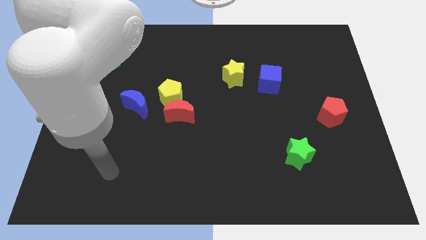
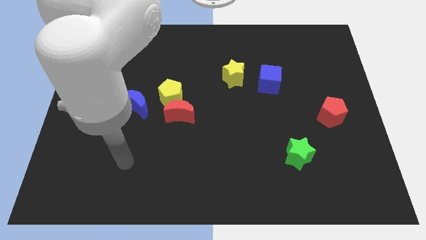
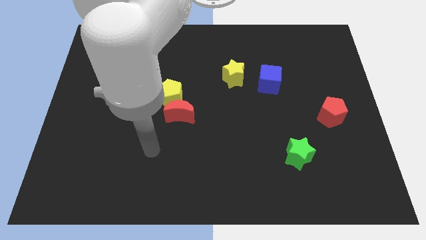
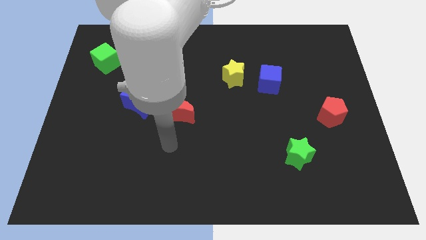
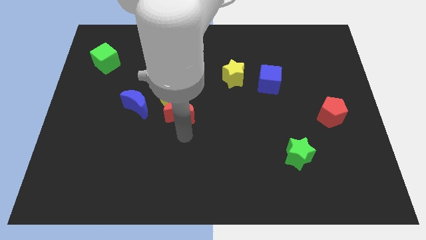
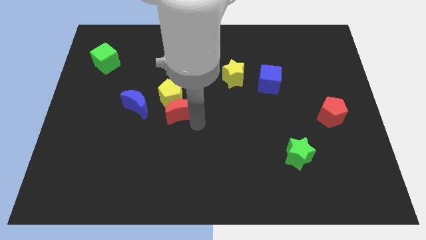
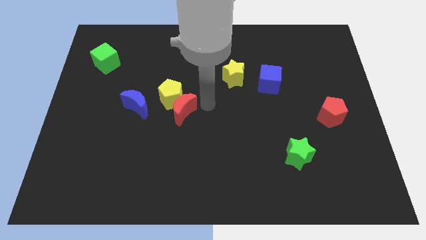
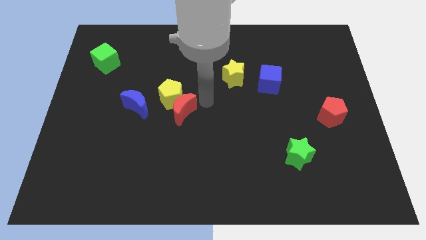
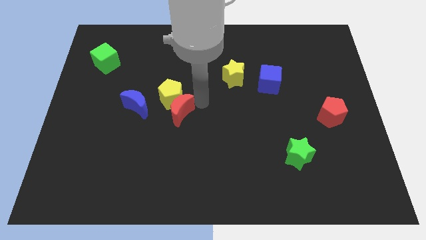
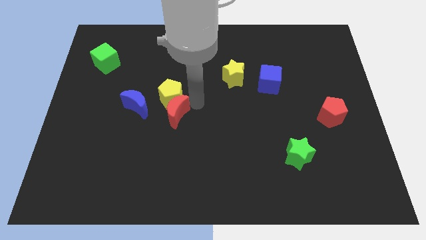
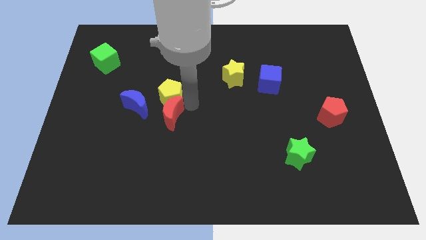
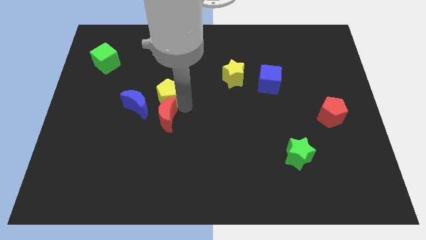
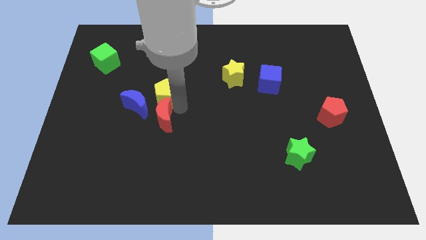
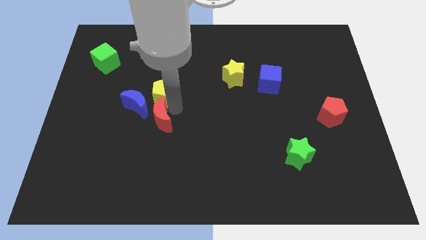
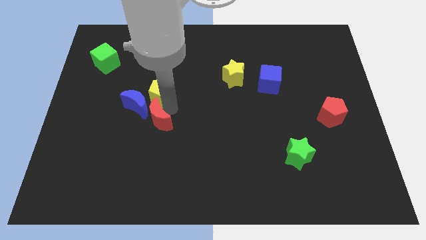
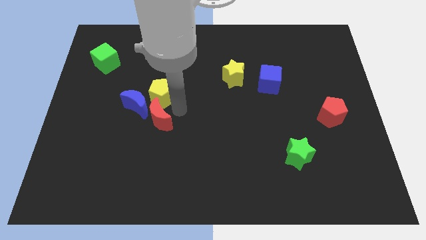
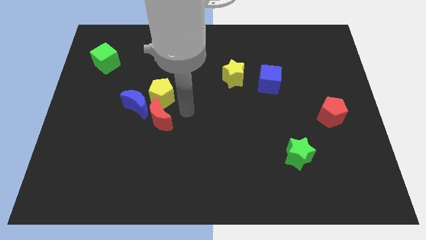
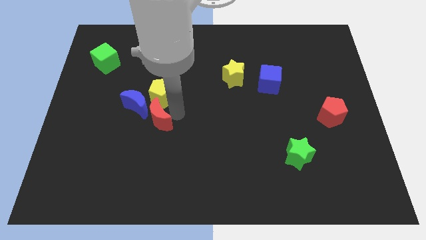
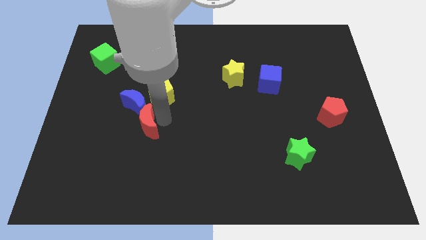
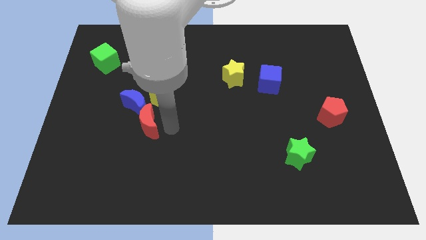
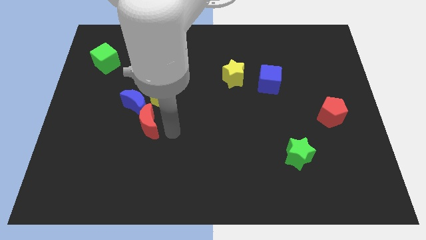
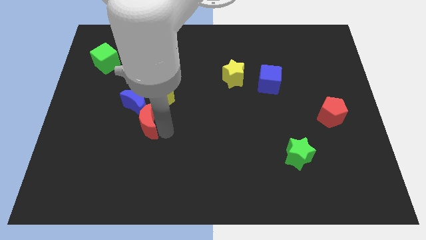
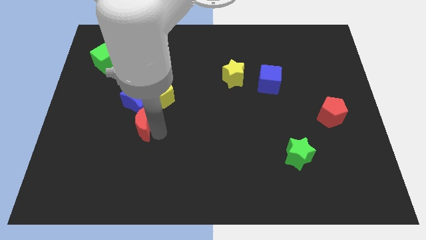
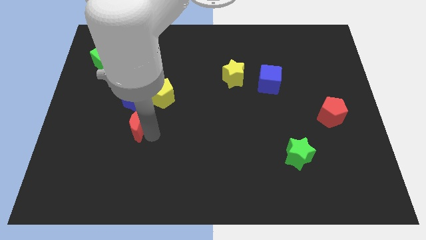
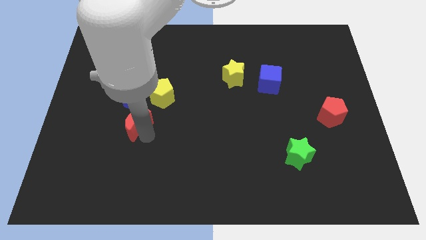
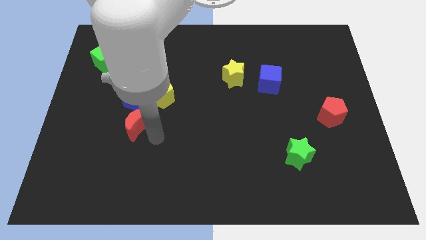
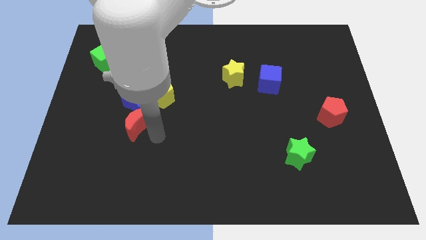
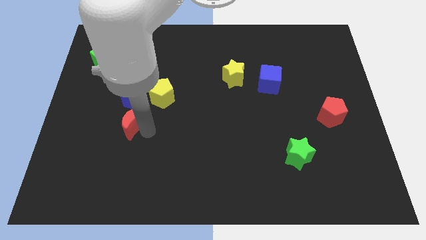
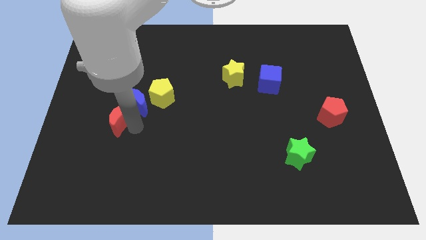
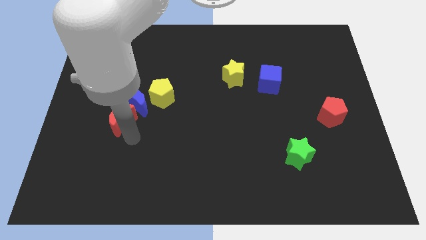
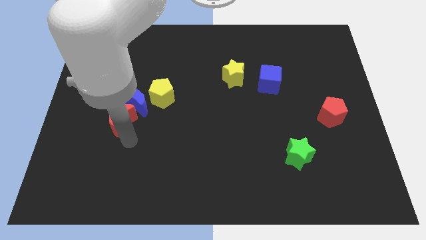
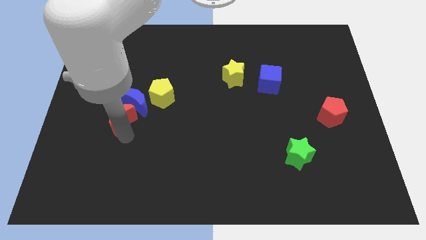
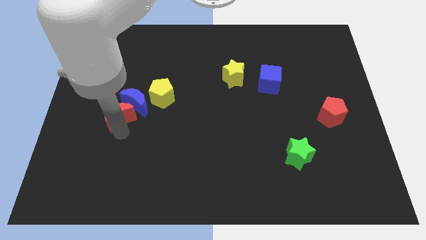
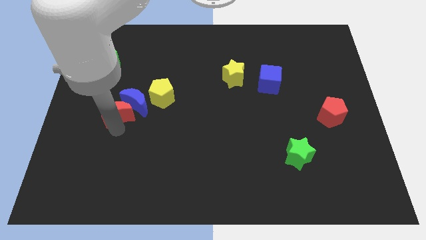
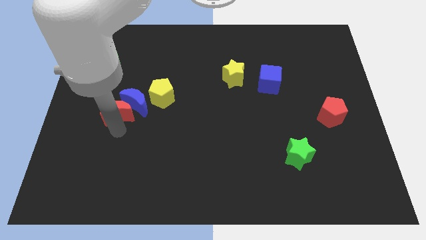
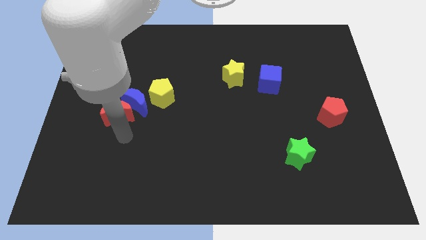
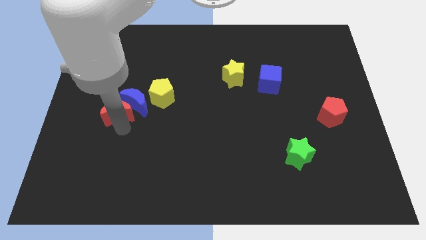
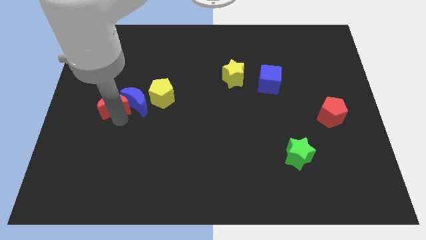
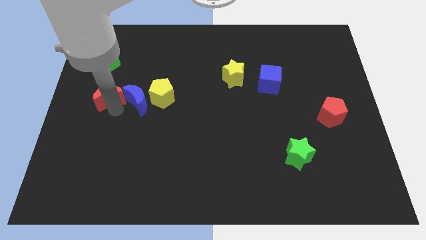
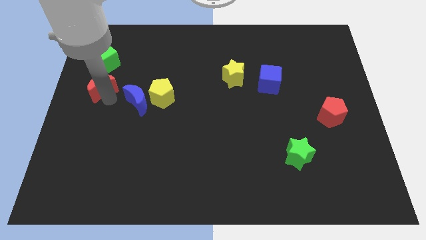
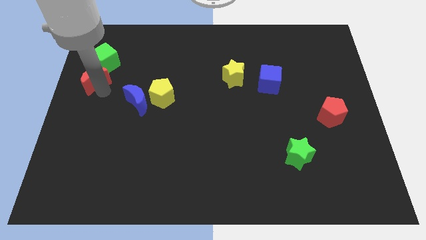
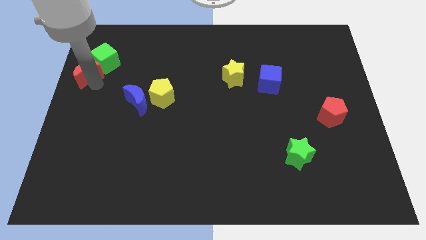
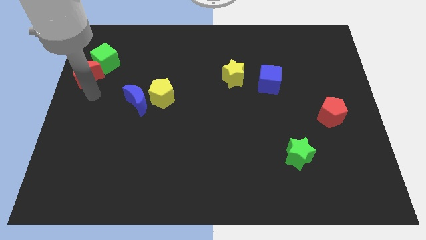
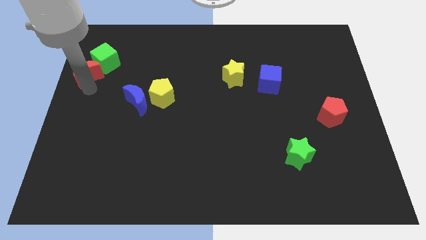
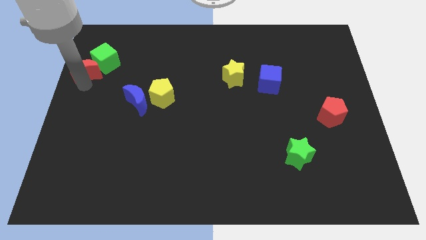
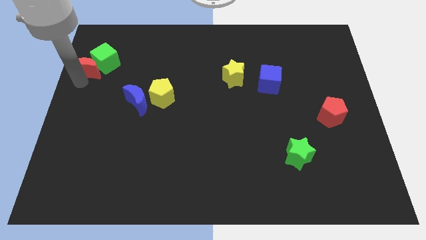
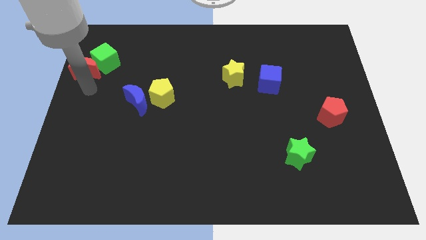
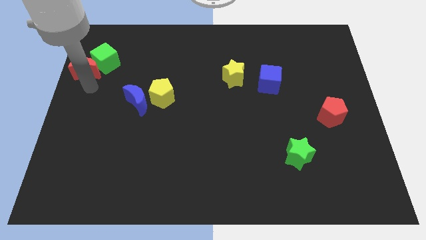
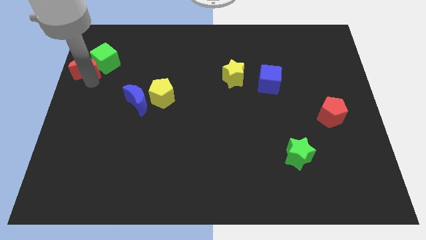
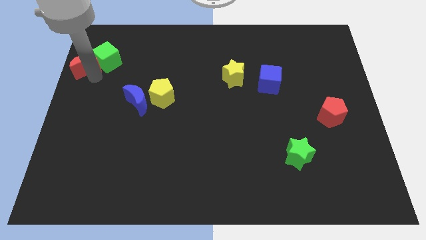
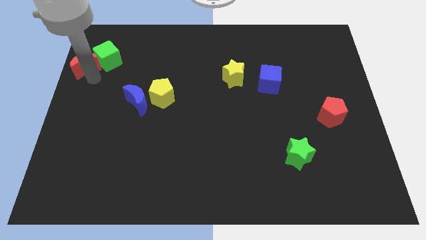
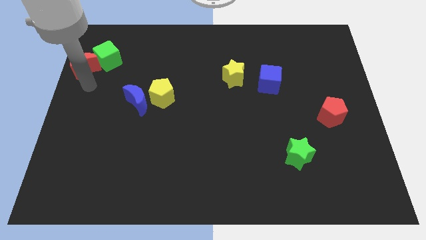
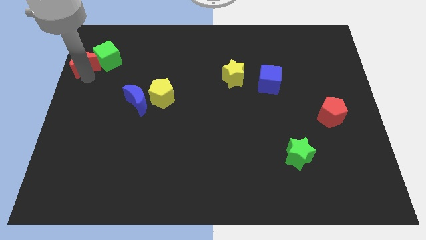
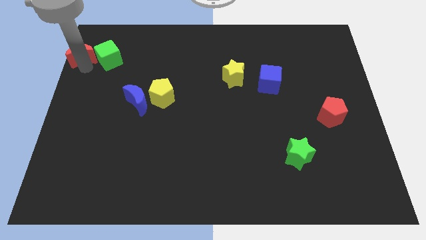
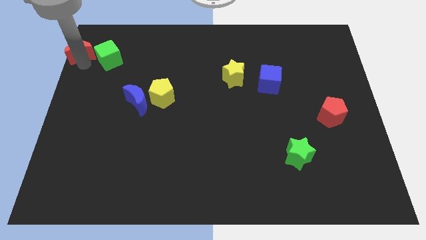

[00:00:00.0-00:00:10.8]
put the red moon to the top left corner
